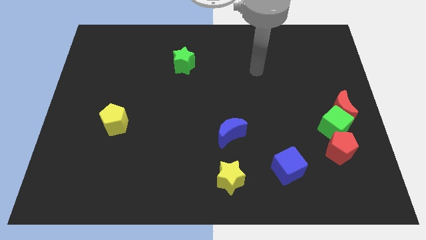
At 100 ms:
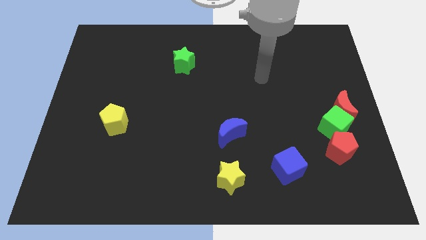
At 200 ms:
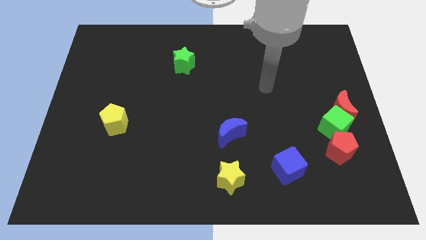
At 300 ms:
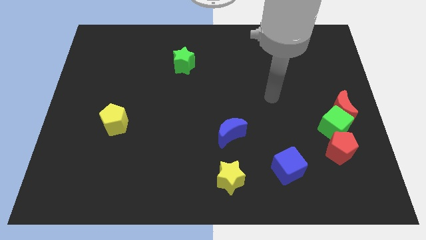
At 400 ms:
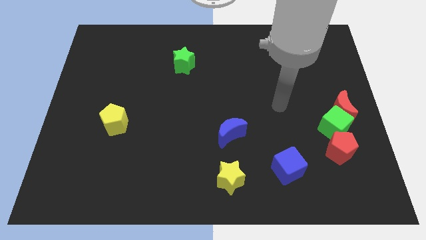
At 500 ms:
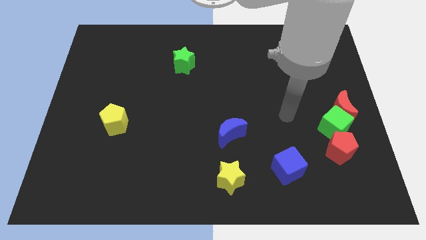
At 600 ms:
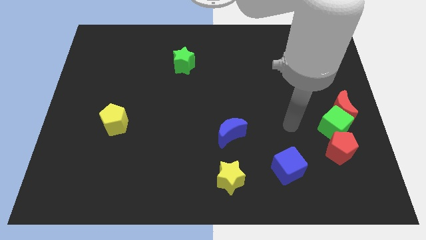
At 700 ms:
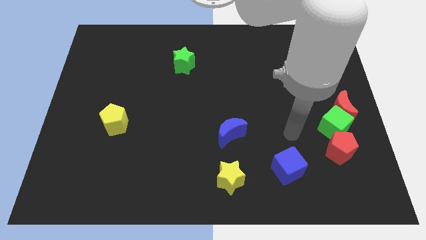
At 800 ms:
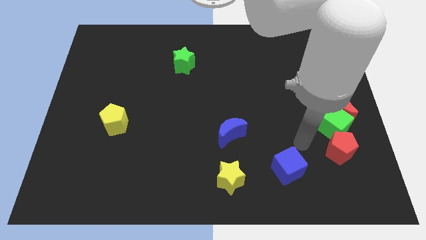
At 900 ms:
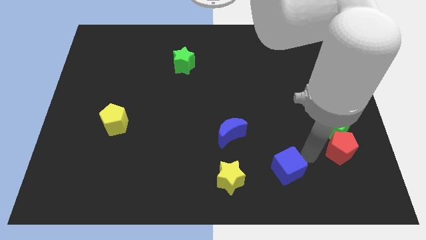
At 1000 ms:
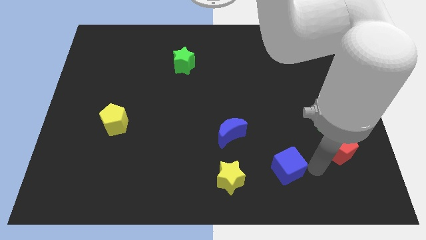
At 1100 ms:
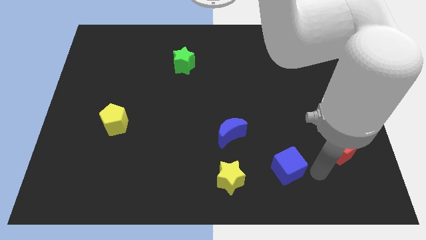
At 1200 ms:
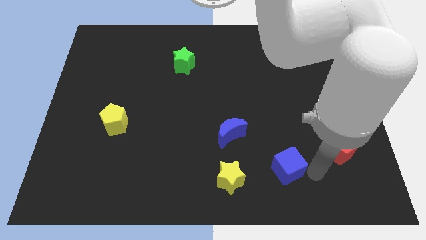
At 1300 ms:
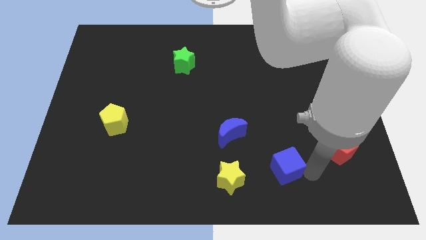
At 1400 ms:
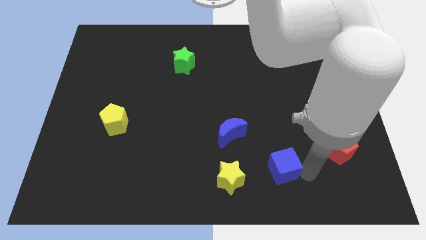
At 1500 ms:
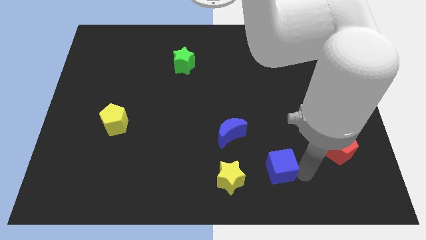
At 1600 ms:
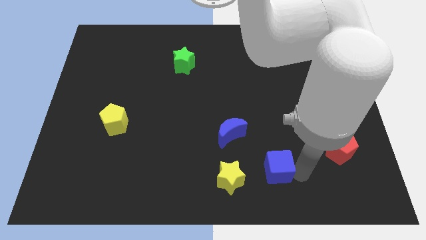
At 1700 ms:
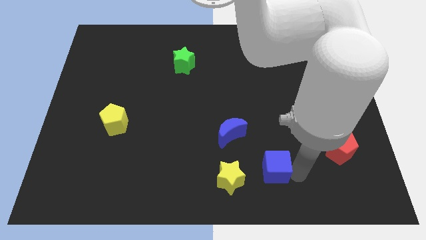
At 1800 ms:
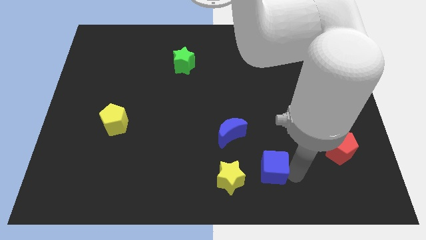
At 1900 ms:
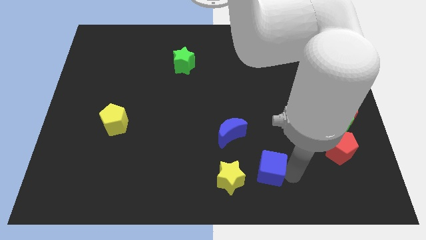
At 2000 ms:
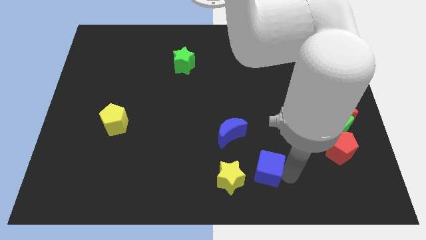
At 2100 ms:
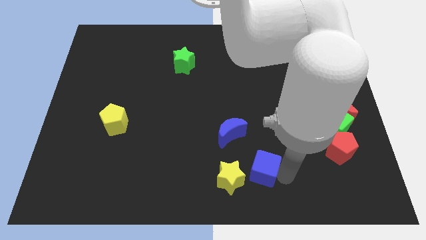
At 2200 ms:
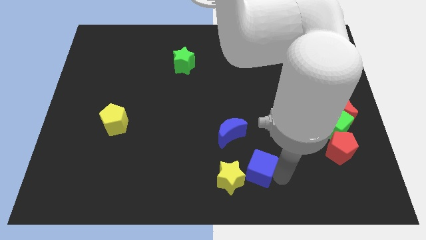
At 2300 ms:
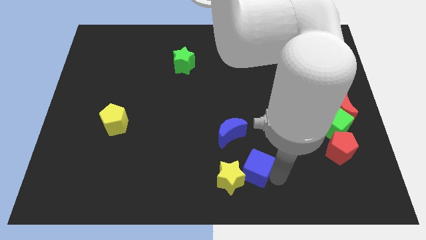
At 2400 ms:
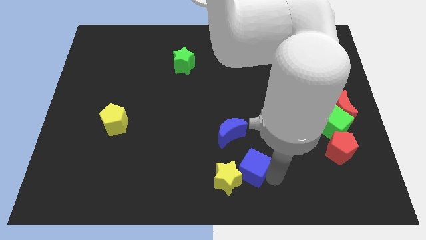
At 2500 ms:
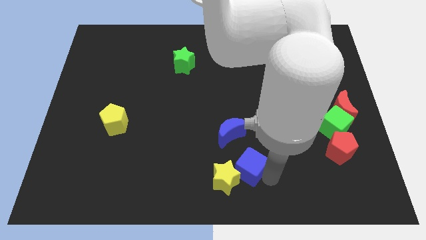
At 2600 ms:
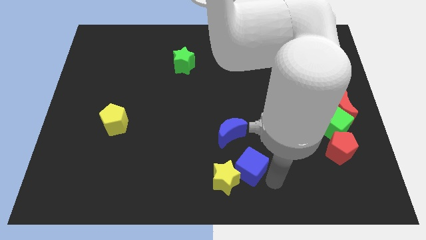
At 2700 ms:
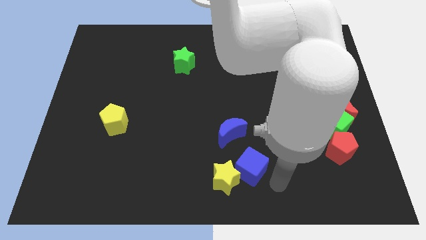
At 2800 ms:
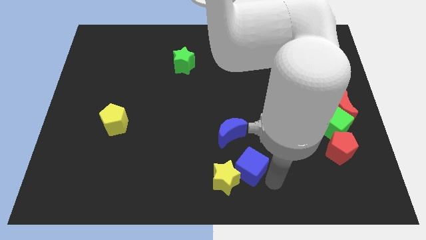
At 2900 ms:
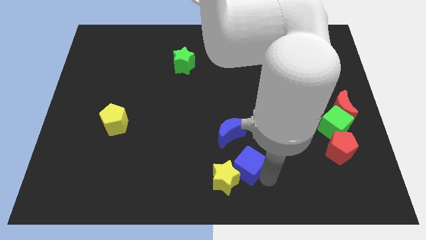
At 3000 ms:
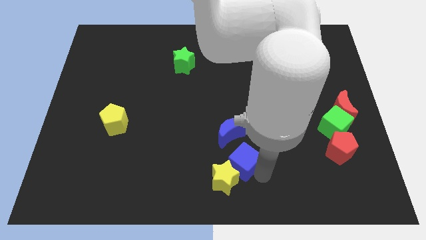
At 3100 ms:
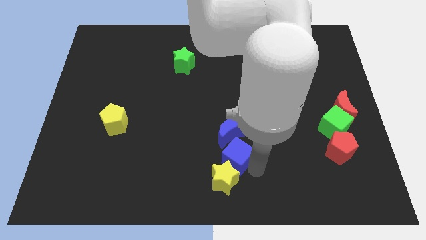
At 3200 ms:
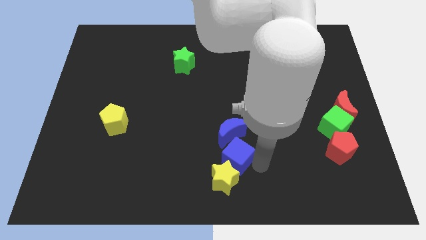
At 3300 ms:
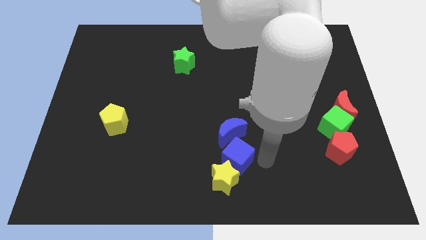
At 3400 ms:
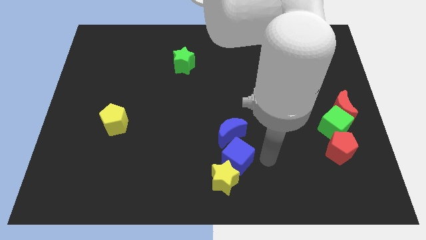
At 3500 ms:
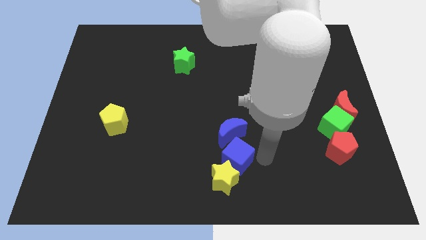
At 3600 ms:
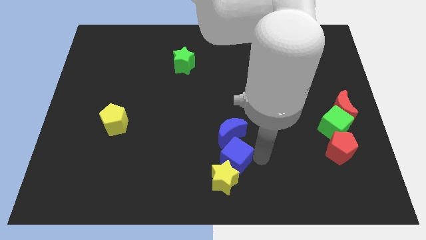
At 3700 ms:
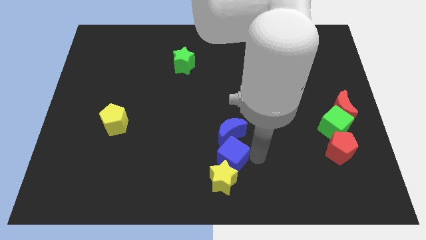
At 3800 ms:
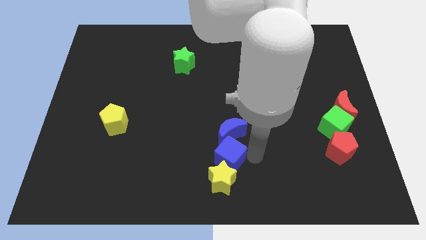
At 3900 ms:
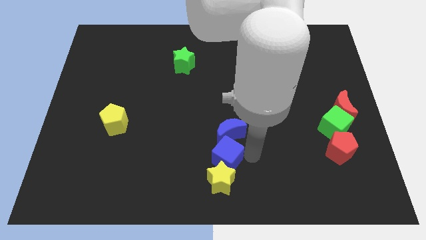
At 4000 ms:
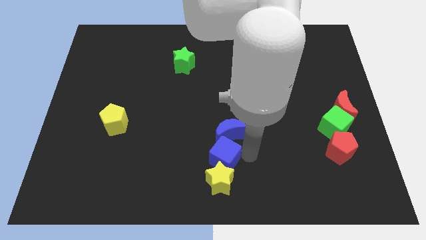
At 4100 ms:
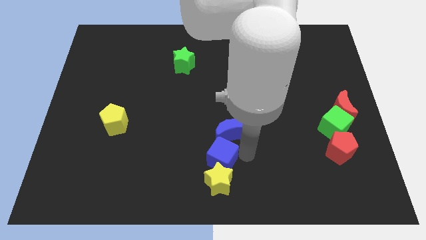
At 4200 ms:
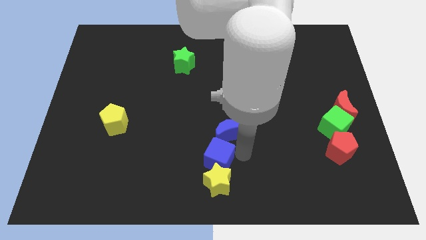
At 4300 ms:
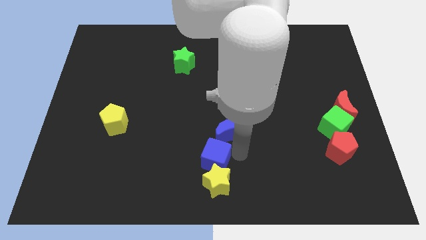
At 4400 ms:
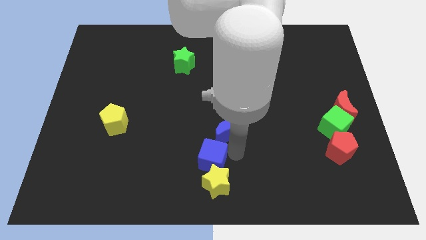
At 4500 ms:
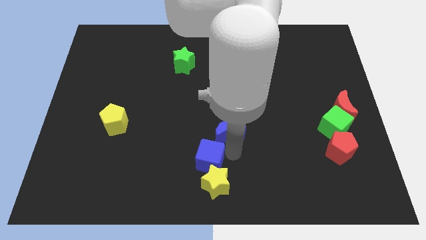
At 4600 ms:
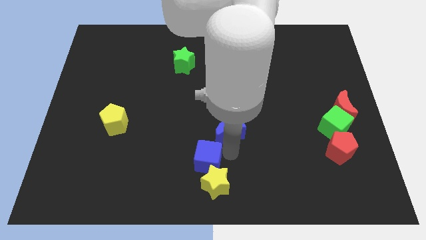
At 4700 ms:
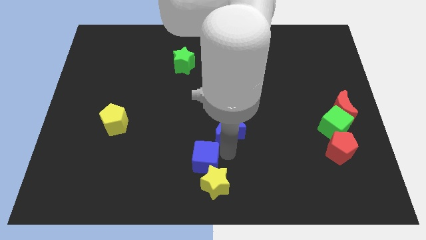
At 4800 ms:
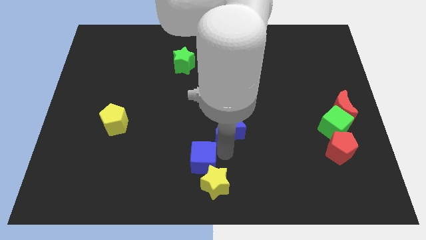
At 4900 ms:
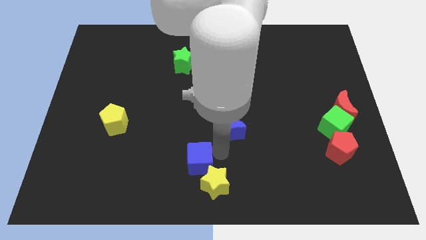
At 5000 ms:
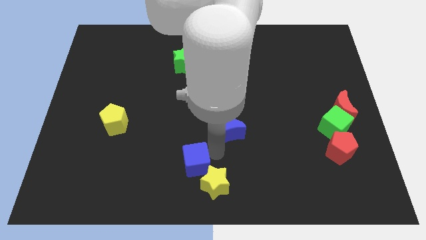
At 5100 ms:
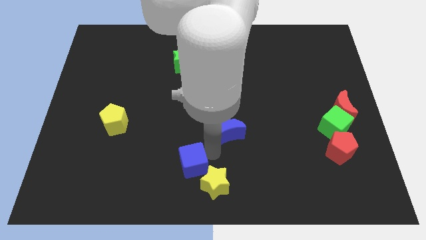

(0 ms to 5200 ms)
slide the blue cube to the left

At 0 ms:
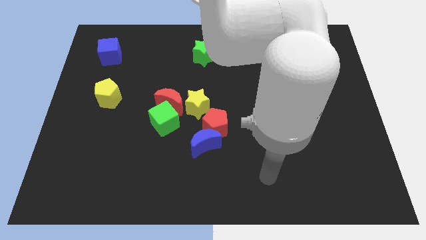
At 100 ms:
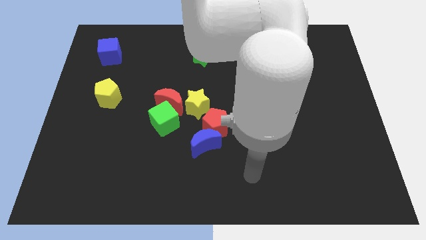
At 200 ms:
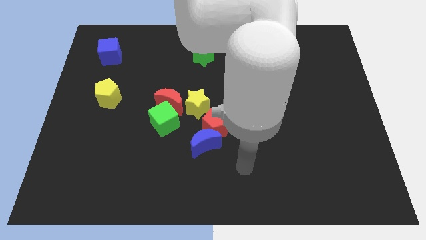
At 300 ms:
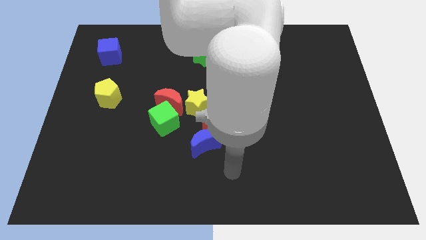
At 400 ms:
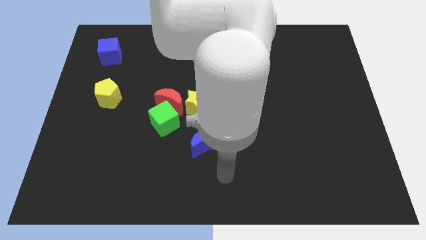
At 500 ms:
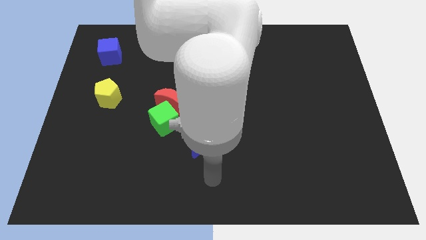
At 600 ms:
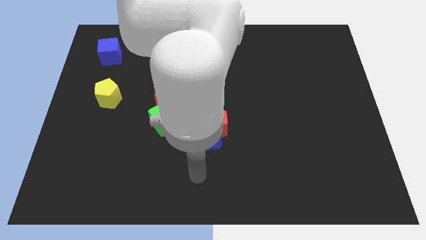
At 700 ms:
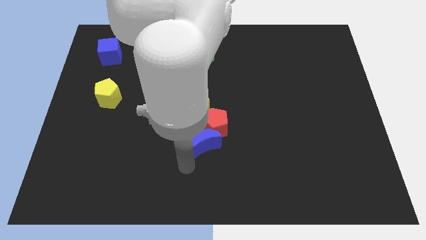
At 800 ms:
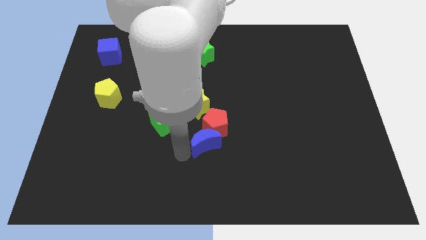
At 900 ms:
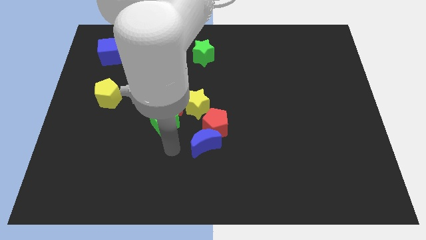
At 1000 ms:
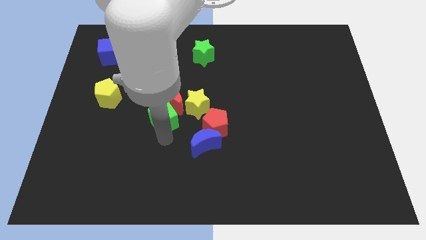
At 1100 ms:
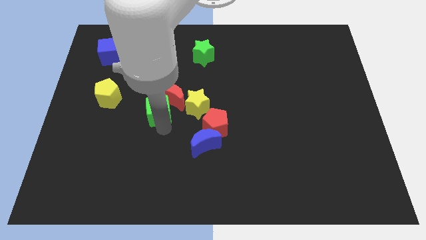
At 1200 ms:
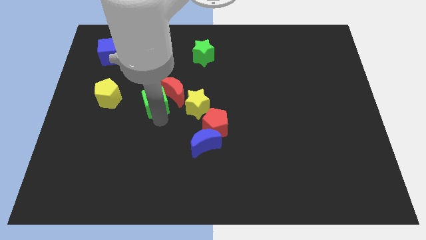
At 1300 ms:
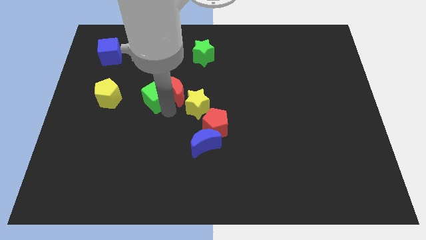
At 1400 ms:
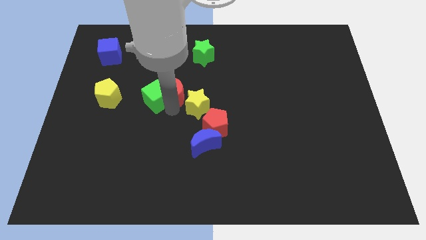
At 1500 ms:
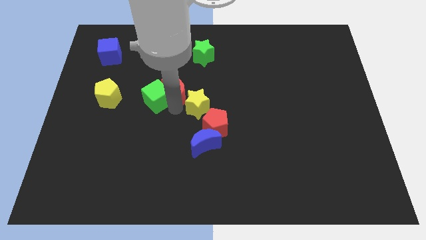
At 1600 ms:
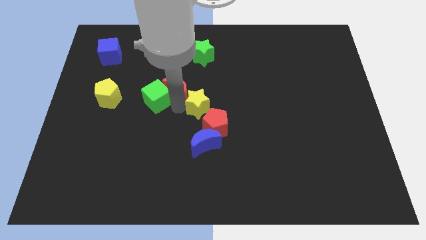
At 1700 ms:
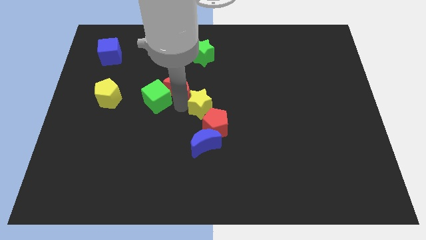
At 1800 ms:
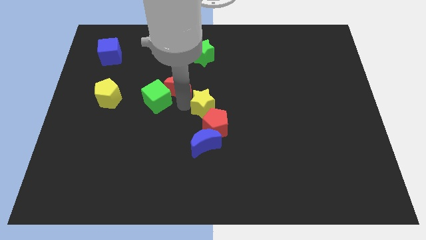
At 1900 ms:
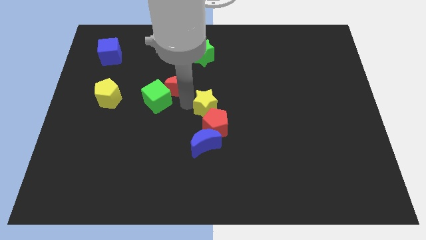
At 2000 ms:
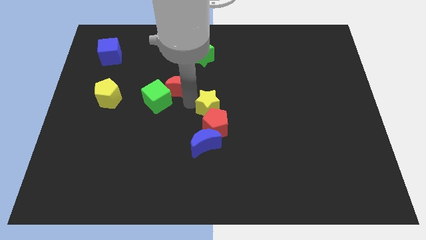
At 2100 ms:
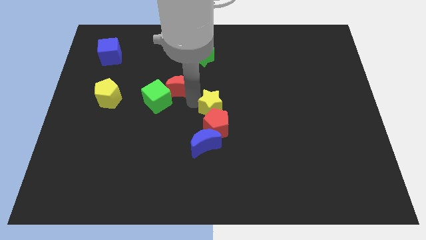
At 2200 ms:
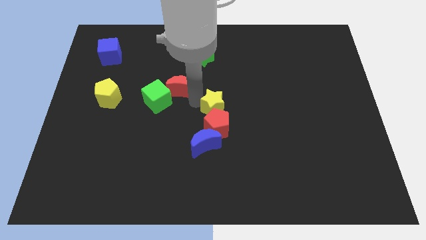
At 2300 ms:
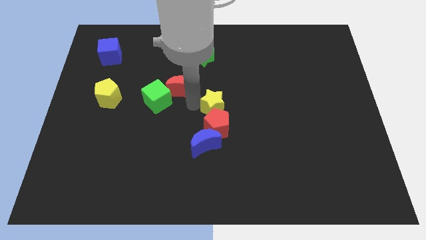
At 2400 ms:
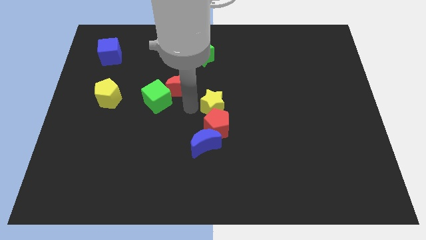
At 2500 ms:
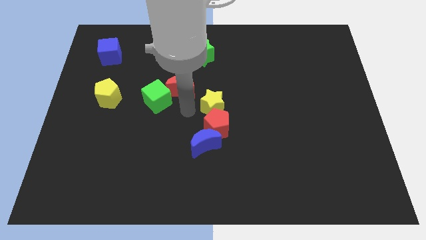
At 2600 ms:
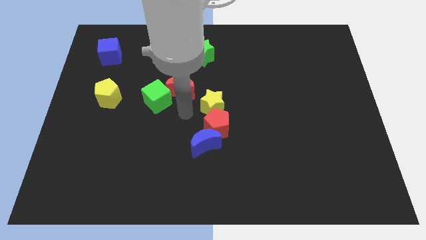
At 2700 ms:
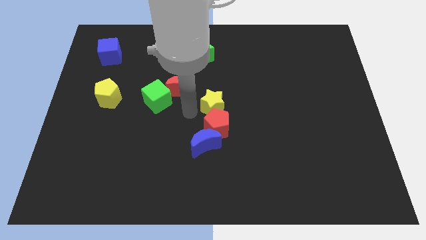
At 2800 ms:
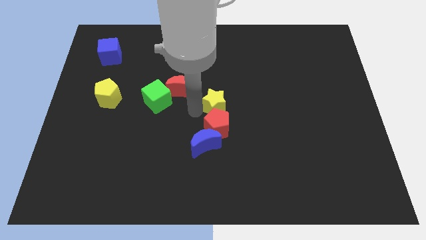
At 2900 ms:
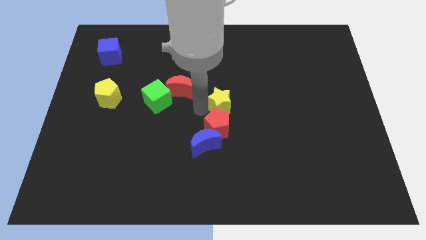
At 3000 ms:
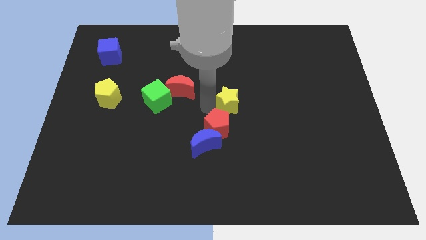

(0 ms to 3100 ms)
slide the yellow star slightly right
